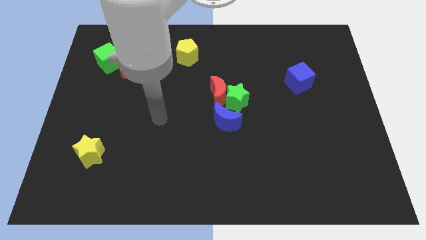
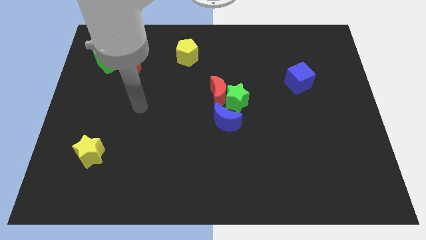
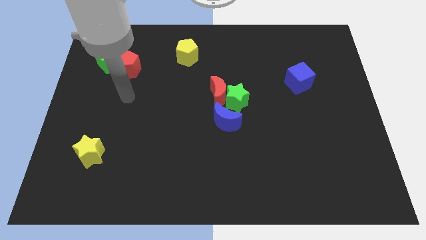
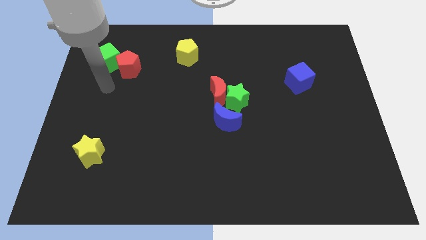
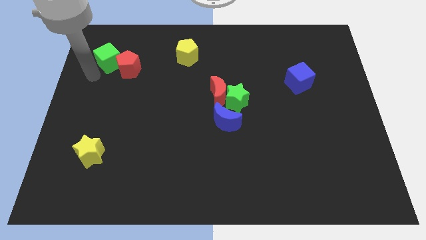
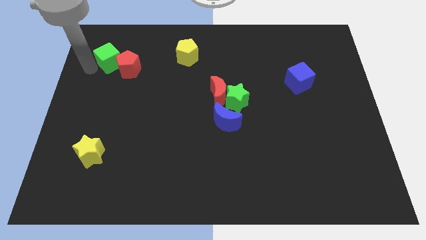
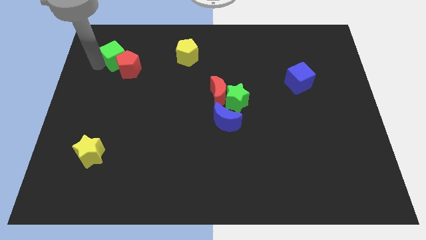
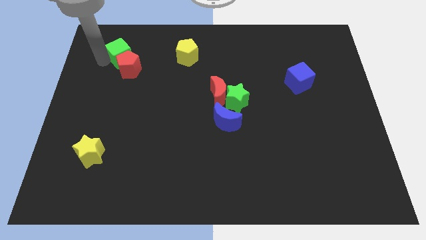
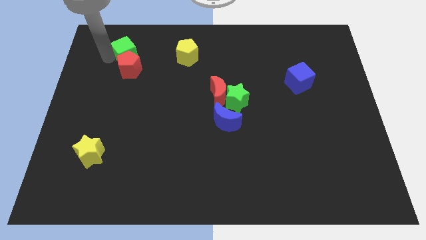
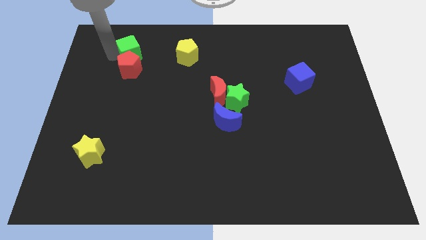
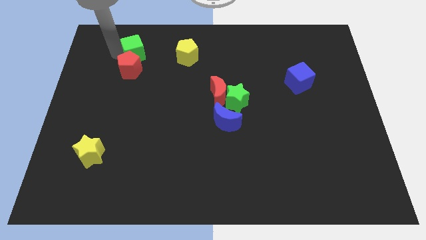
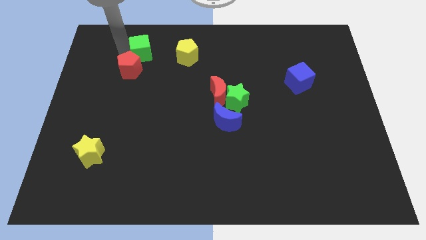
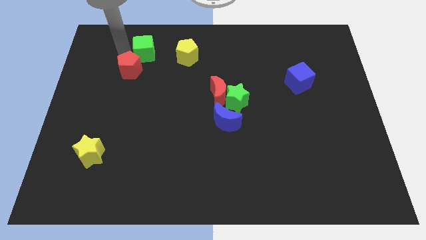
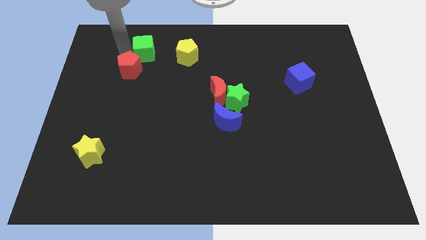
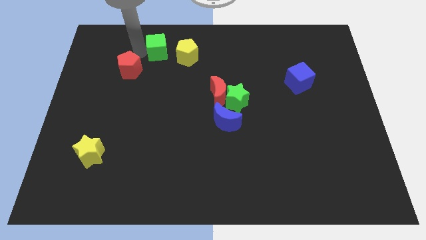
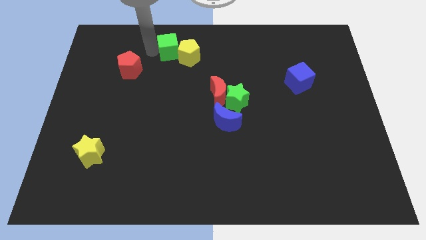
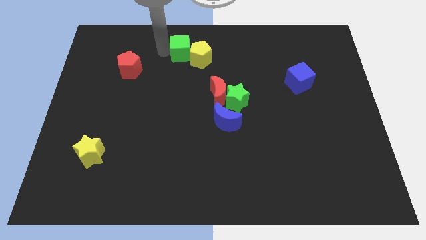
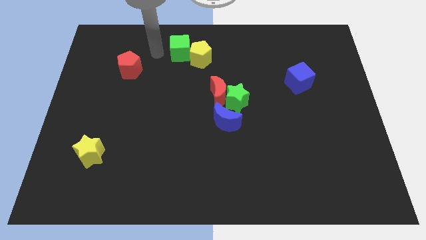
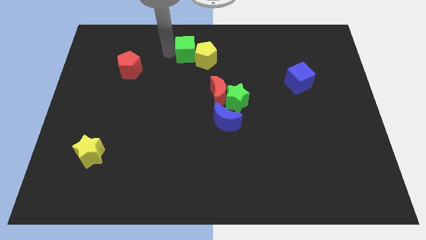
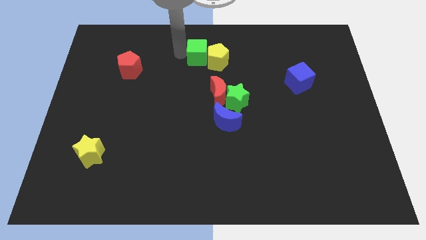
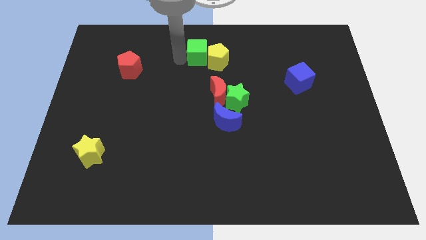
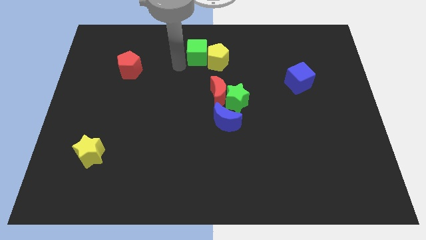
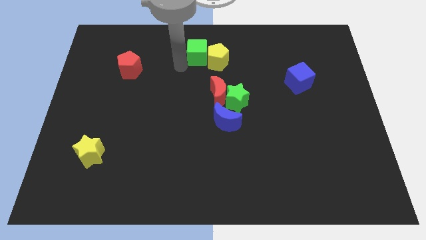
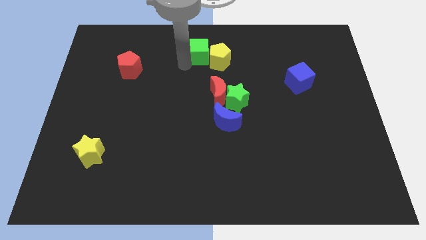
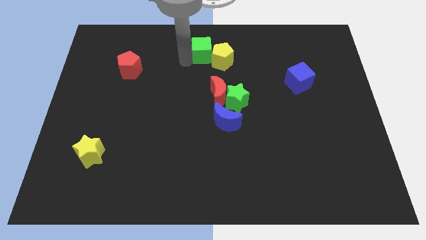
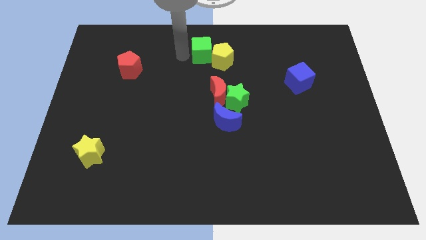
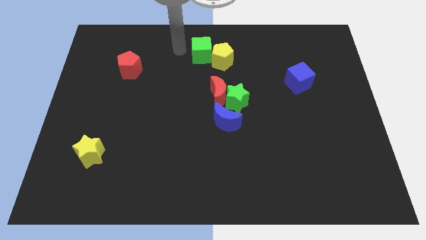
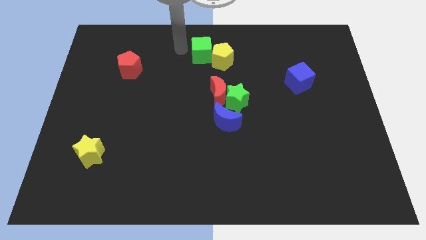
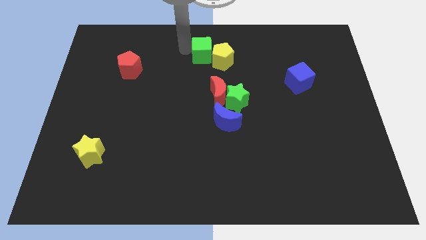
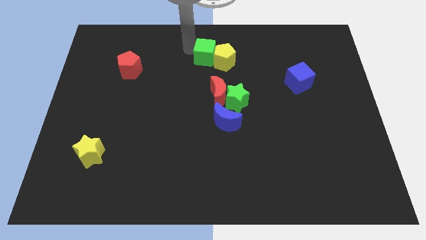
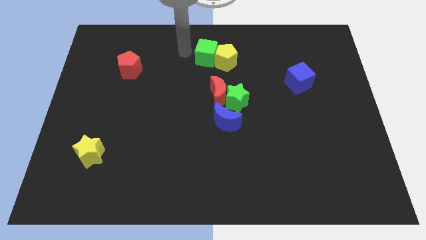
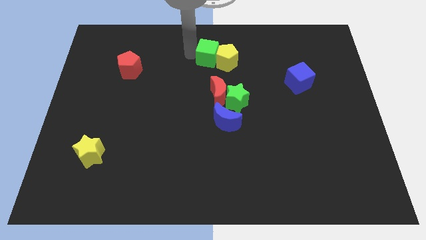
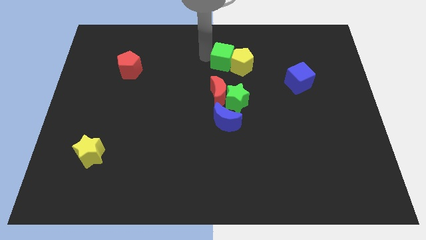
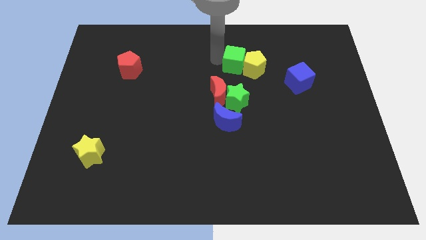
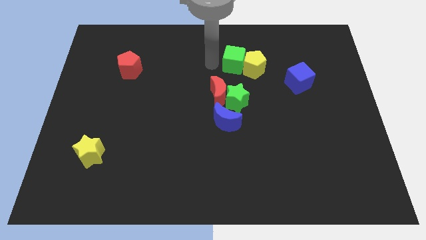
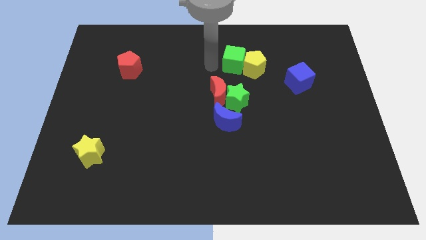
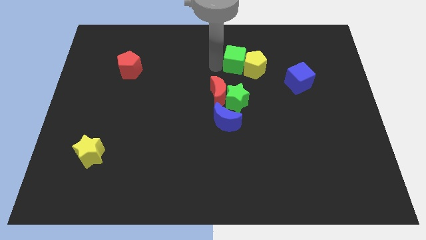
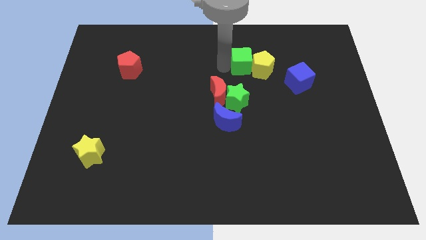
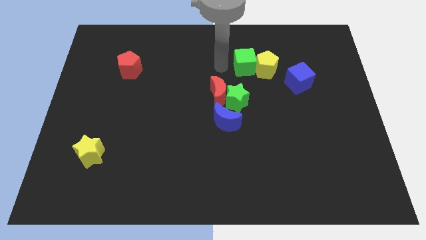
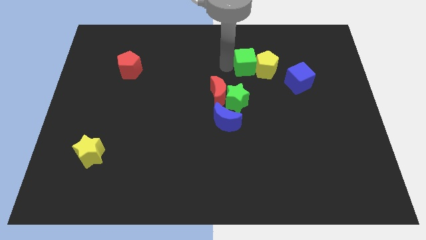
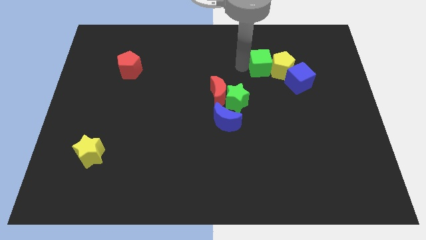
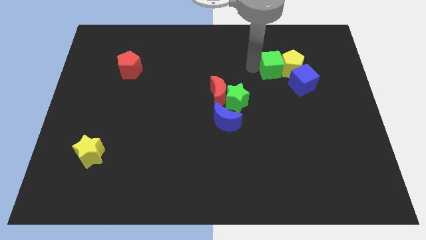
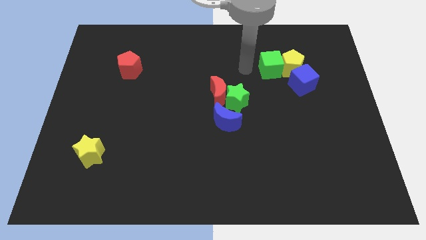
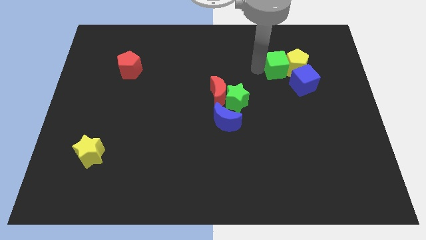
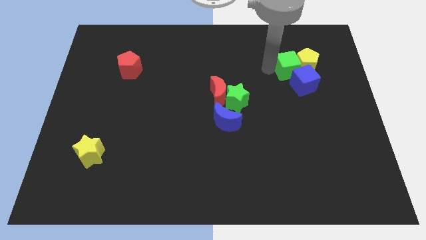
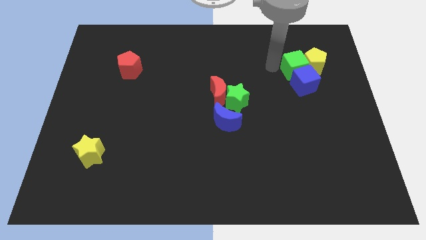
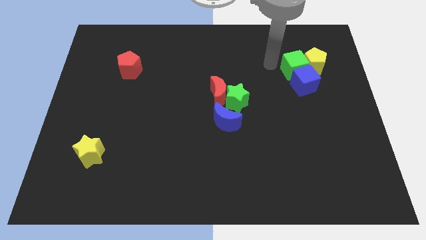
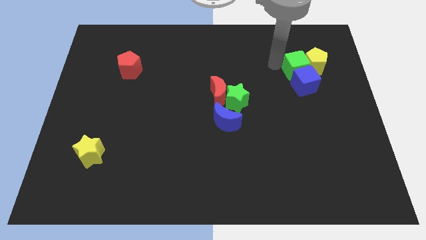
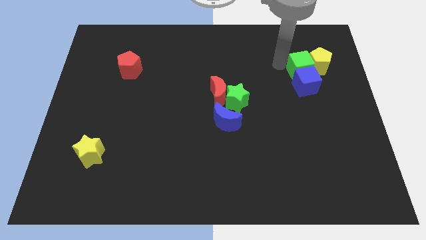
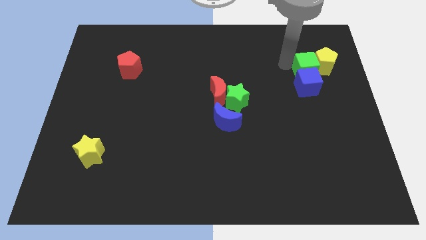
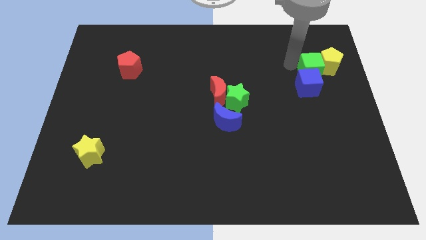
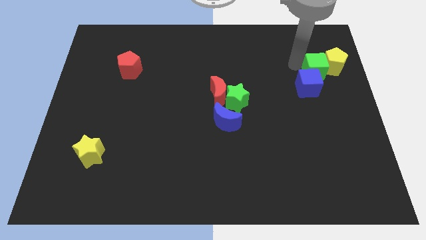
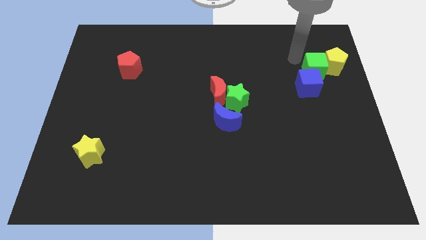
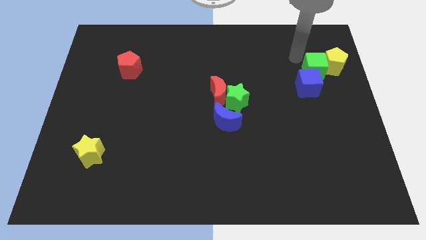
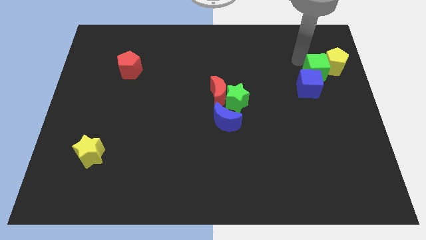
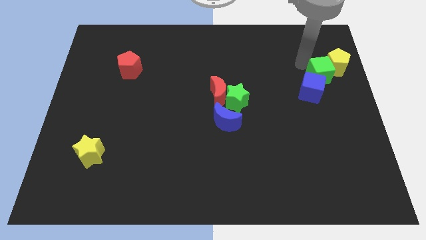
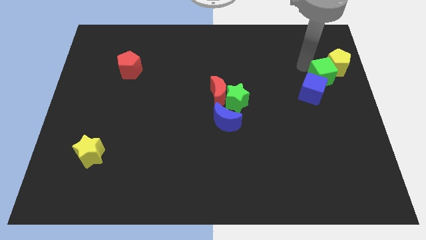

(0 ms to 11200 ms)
move the green cube to the center right
